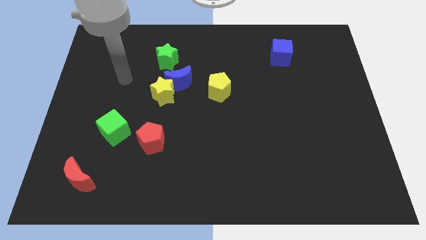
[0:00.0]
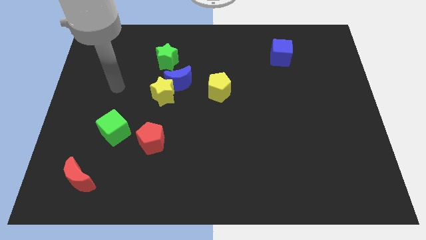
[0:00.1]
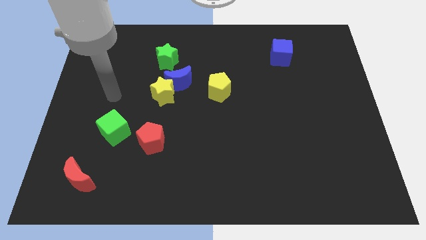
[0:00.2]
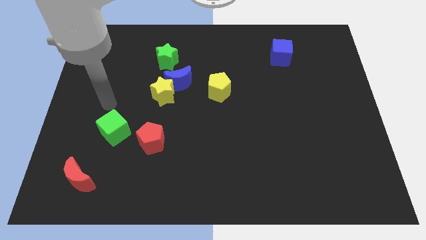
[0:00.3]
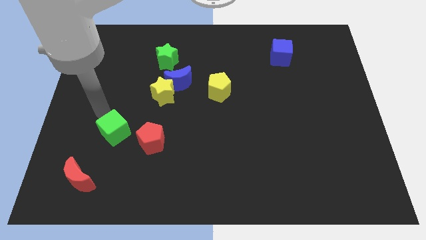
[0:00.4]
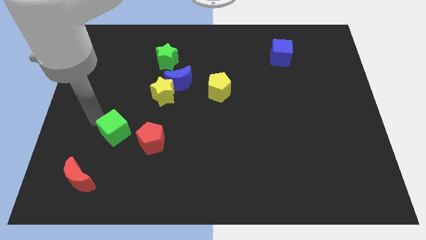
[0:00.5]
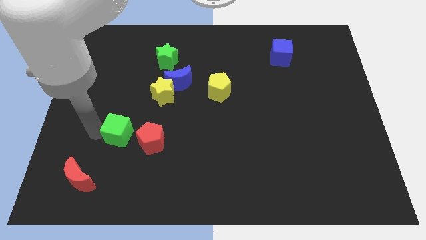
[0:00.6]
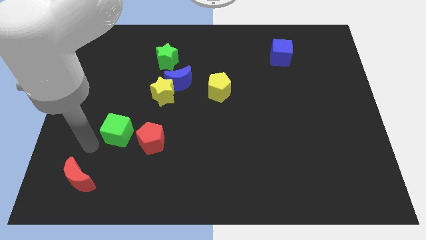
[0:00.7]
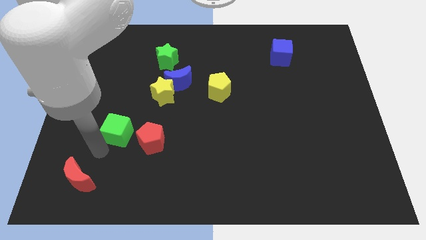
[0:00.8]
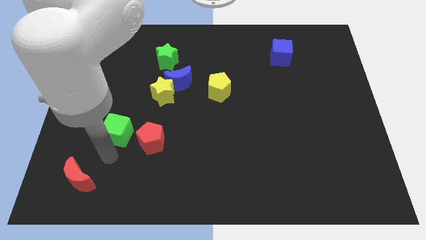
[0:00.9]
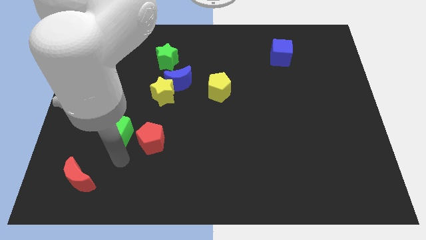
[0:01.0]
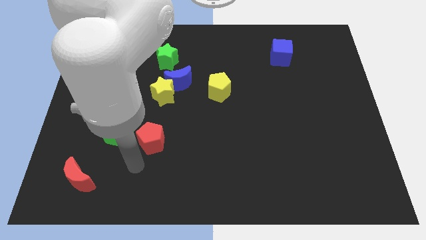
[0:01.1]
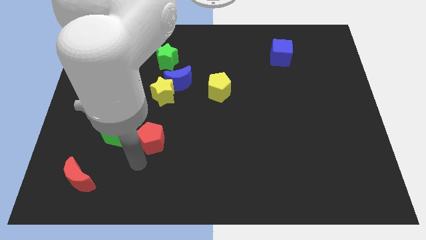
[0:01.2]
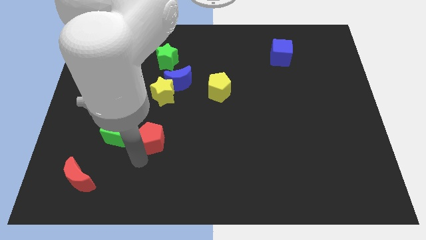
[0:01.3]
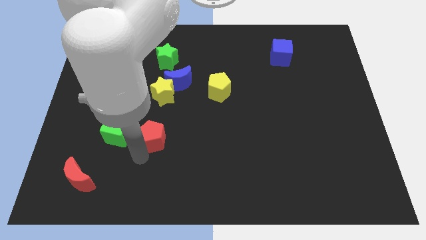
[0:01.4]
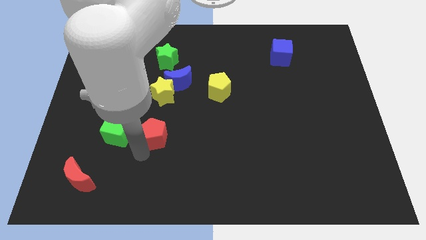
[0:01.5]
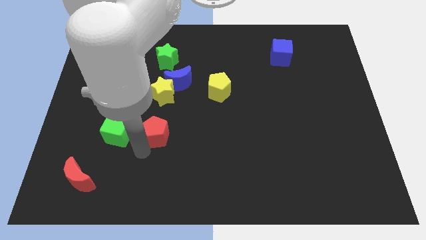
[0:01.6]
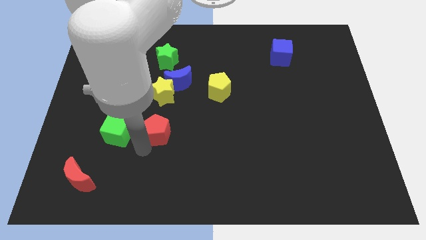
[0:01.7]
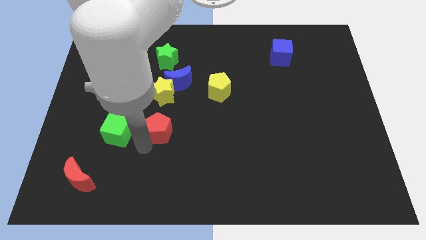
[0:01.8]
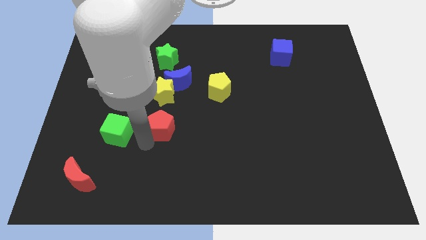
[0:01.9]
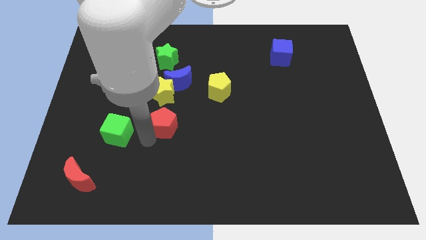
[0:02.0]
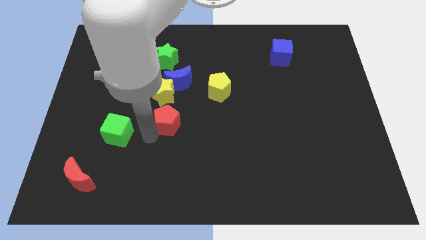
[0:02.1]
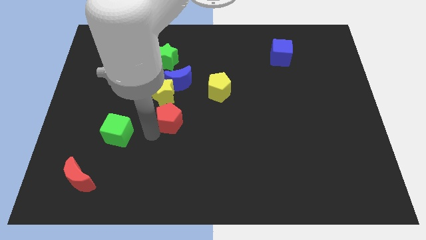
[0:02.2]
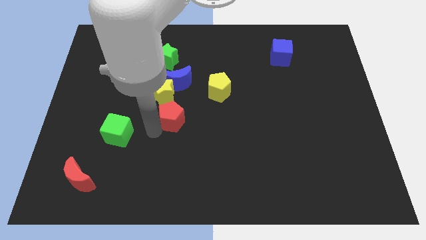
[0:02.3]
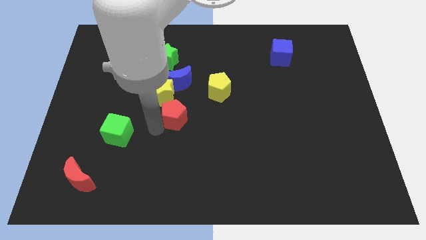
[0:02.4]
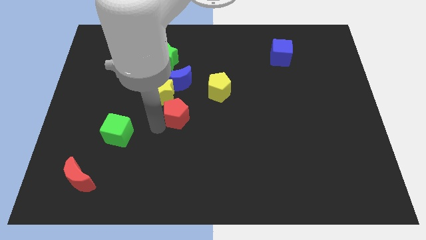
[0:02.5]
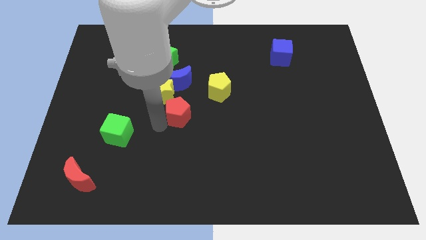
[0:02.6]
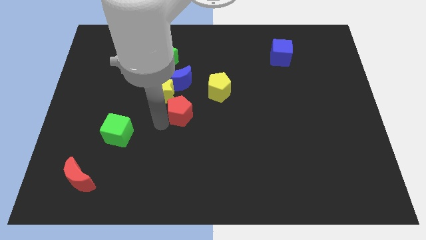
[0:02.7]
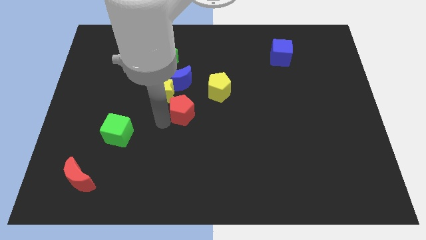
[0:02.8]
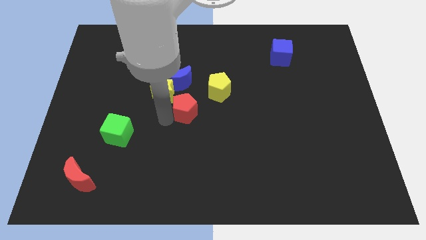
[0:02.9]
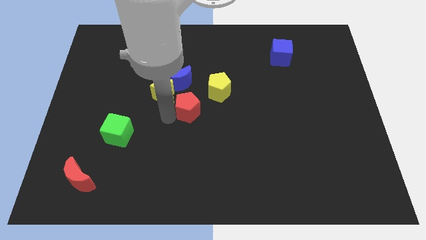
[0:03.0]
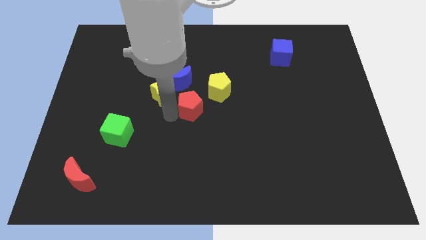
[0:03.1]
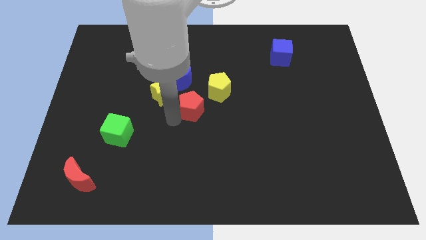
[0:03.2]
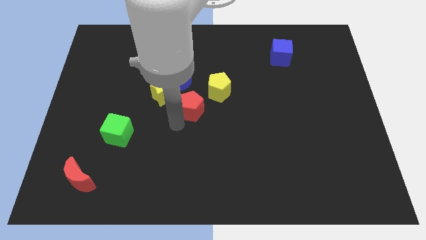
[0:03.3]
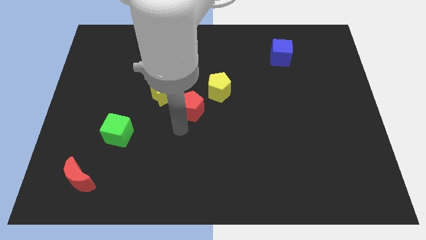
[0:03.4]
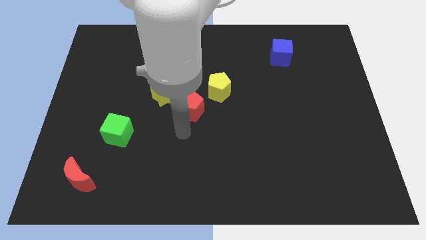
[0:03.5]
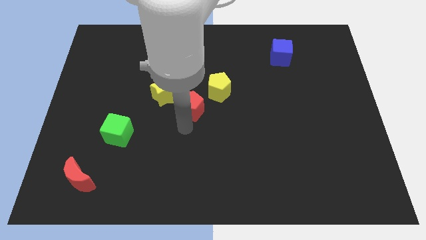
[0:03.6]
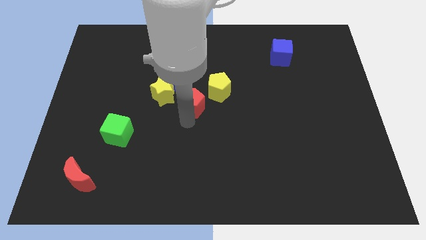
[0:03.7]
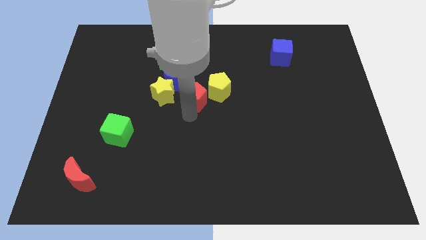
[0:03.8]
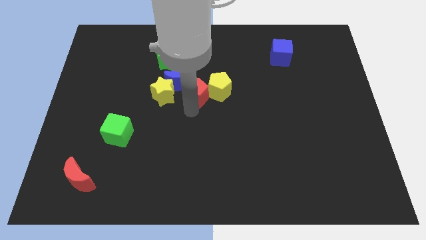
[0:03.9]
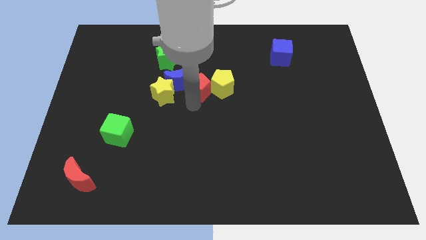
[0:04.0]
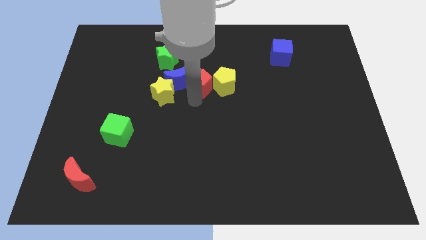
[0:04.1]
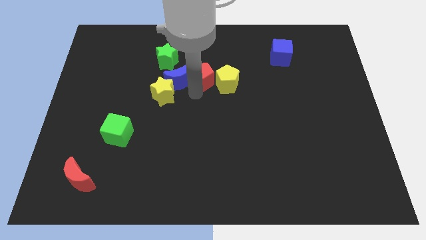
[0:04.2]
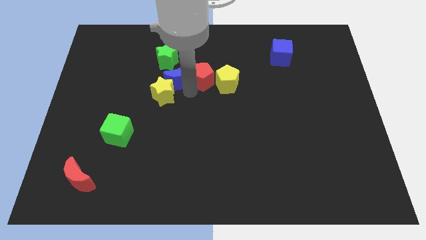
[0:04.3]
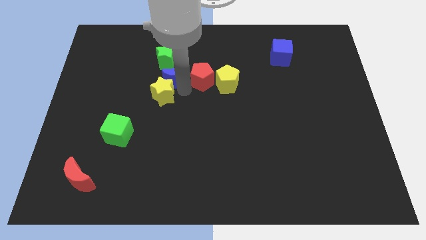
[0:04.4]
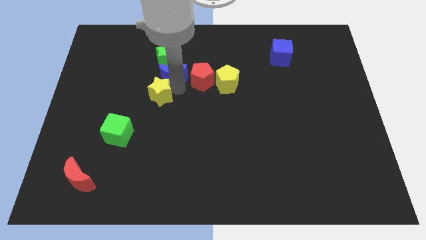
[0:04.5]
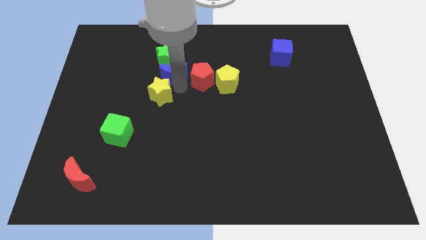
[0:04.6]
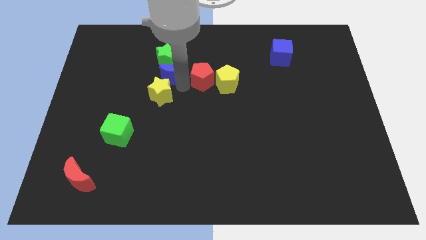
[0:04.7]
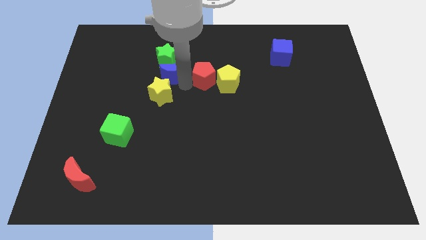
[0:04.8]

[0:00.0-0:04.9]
push the red pentagon upwards and then right

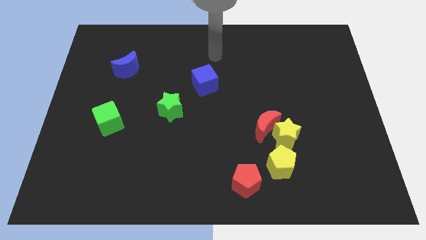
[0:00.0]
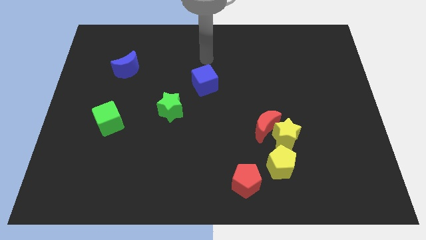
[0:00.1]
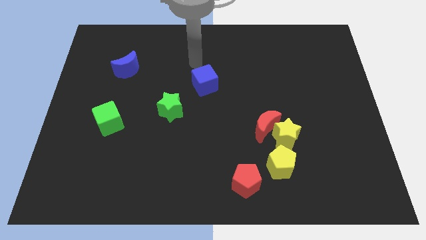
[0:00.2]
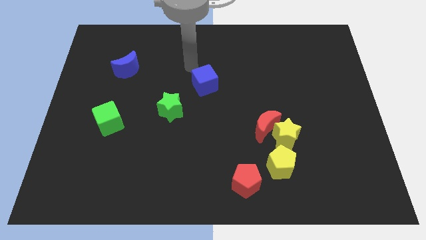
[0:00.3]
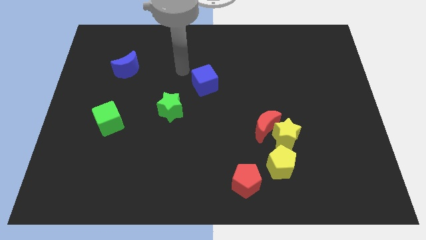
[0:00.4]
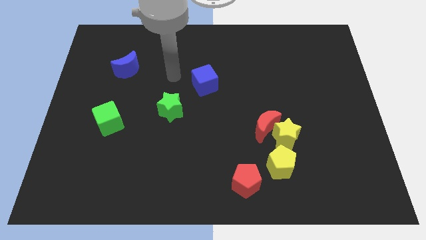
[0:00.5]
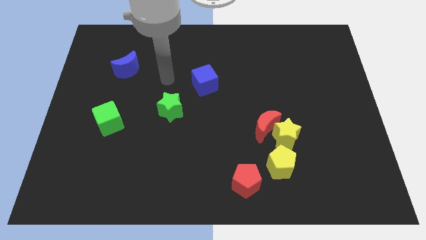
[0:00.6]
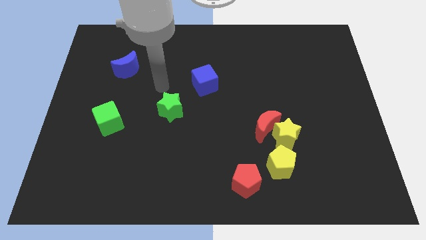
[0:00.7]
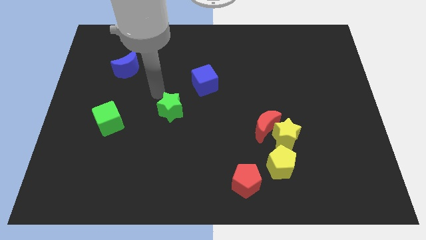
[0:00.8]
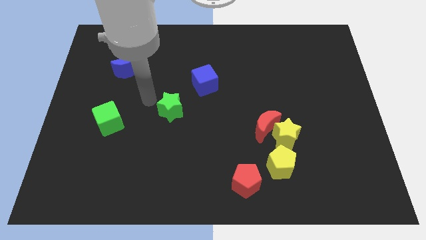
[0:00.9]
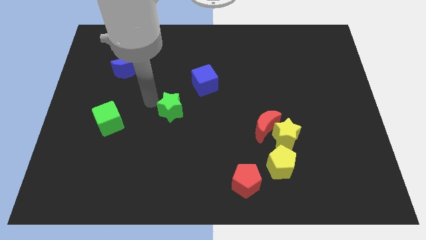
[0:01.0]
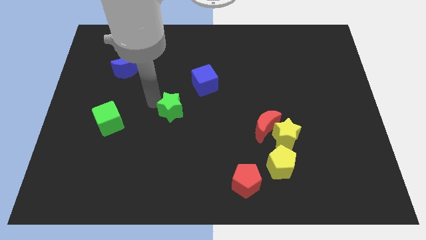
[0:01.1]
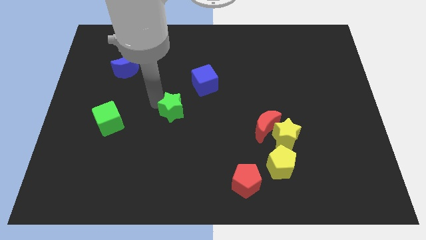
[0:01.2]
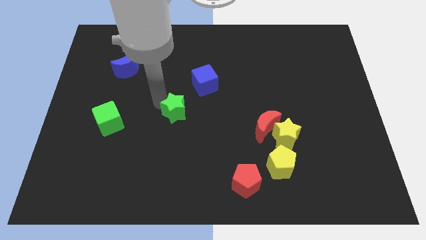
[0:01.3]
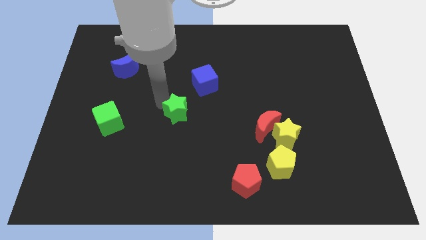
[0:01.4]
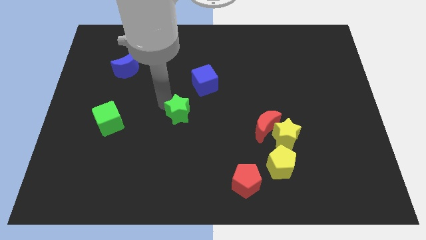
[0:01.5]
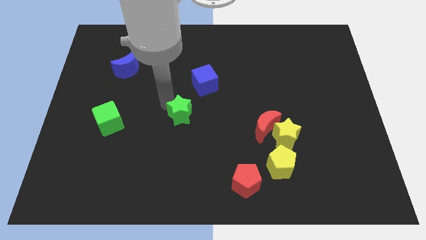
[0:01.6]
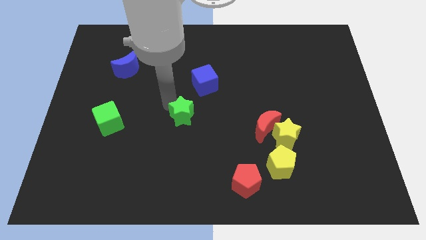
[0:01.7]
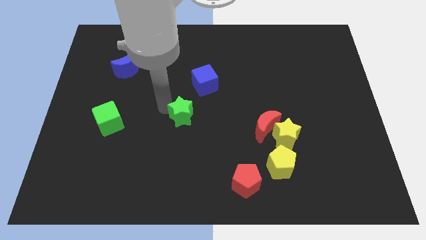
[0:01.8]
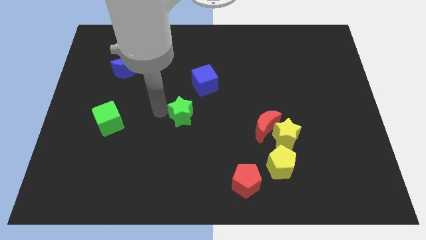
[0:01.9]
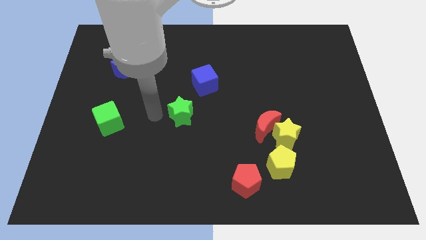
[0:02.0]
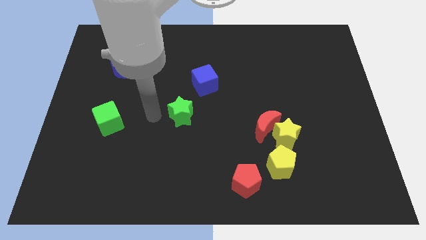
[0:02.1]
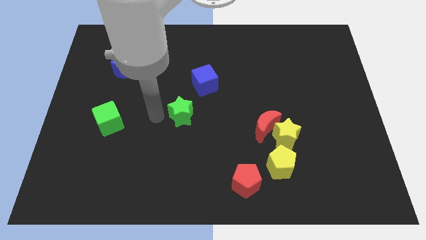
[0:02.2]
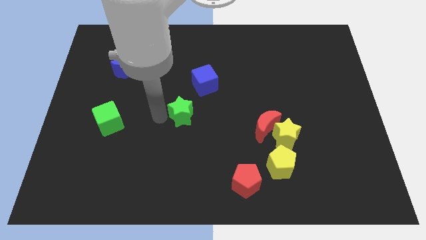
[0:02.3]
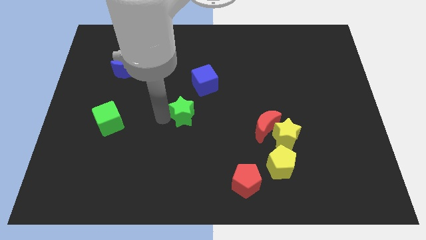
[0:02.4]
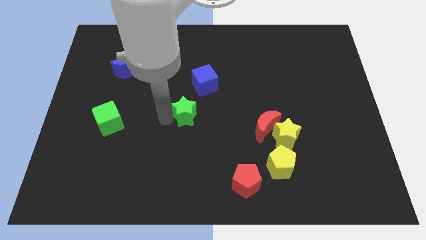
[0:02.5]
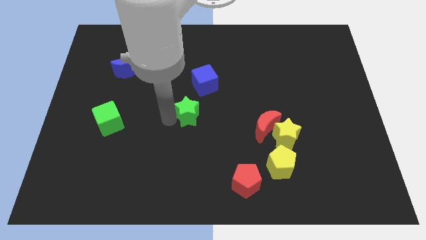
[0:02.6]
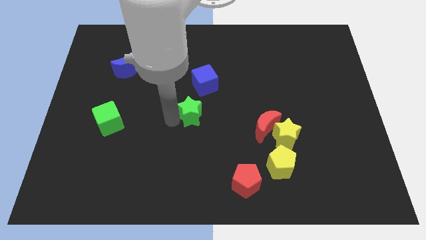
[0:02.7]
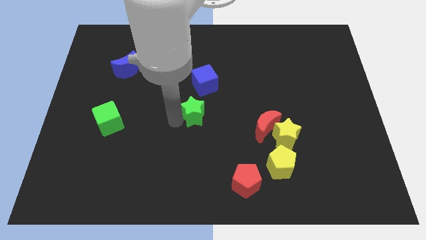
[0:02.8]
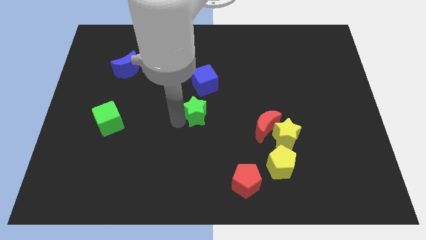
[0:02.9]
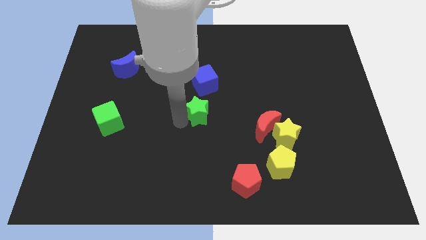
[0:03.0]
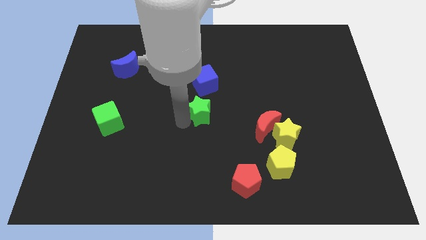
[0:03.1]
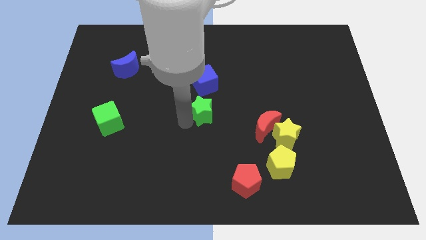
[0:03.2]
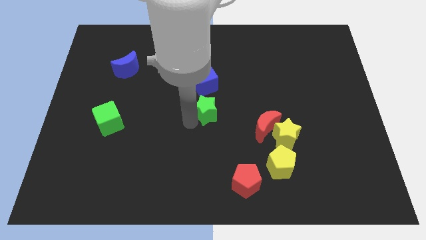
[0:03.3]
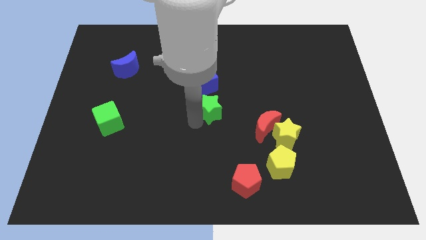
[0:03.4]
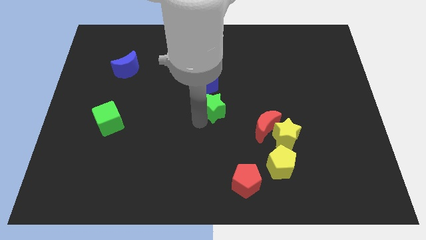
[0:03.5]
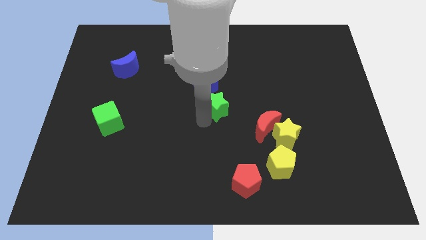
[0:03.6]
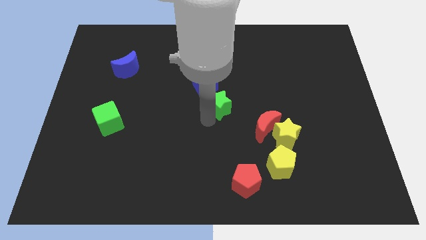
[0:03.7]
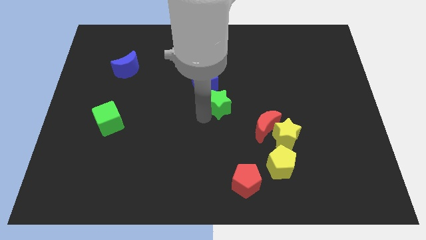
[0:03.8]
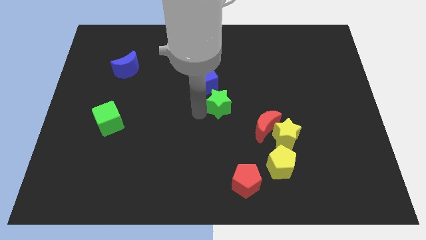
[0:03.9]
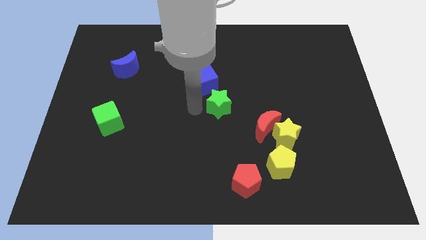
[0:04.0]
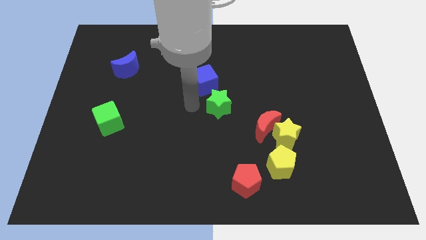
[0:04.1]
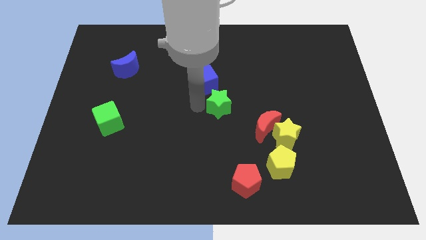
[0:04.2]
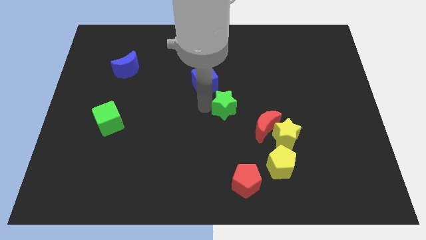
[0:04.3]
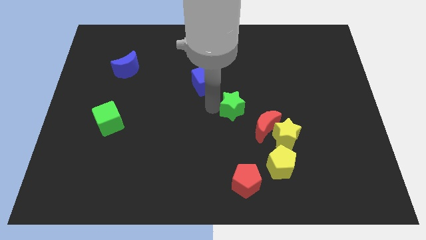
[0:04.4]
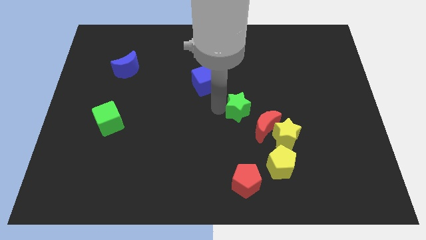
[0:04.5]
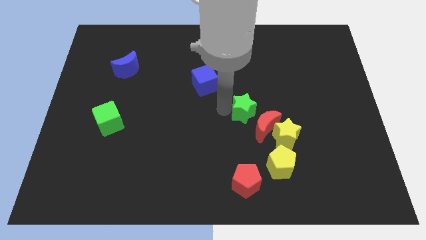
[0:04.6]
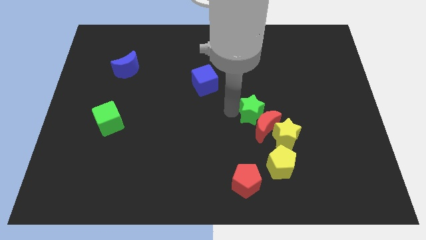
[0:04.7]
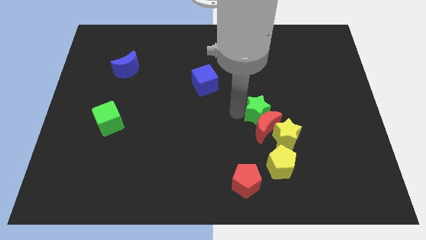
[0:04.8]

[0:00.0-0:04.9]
push the green star right
